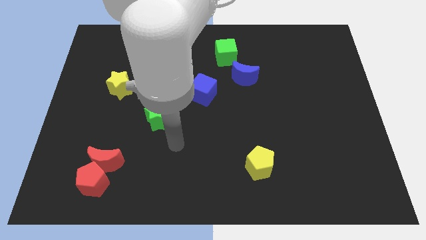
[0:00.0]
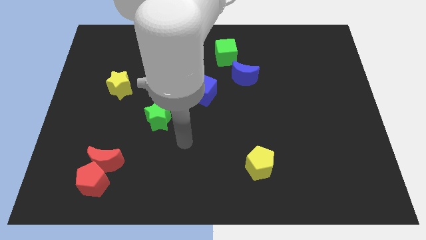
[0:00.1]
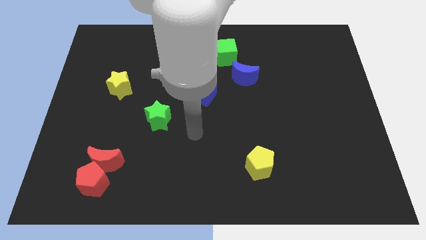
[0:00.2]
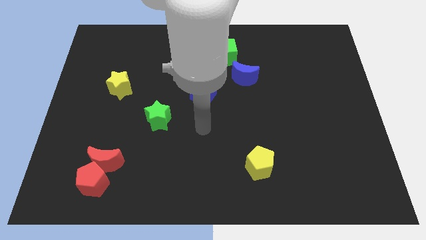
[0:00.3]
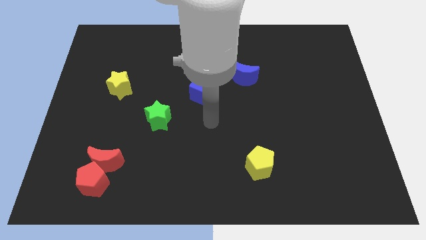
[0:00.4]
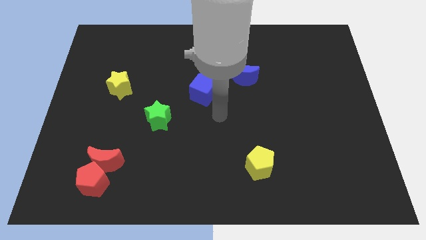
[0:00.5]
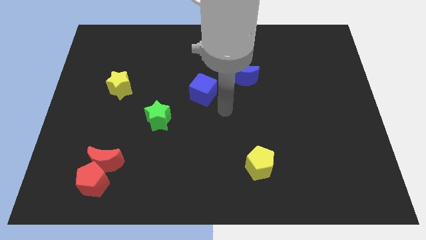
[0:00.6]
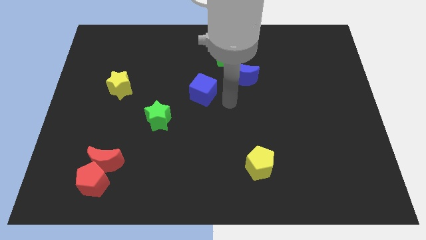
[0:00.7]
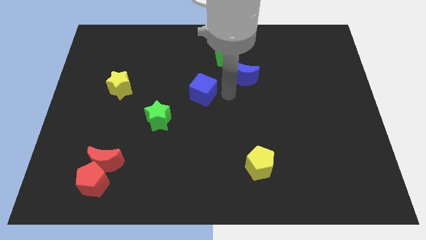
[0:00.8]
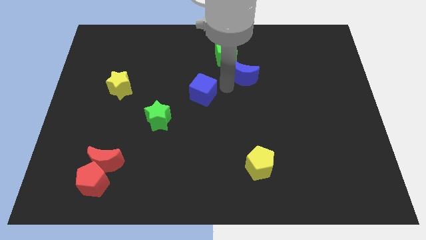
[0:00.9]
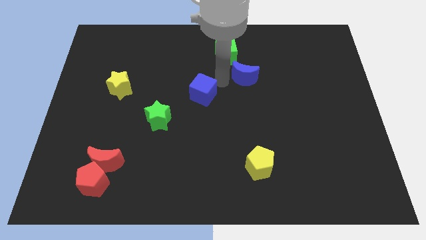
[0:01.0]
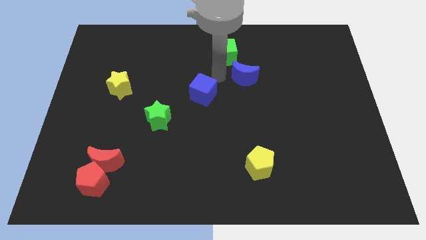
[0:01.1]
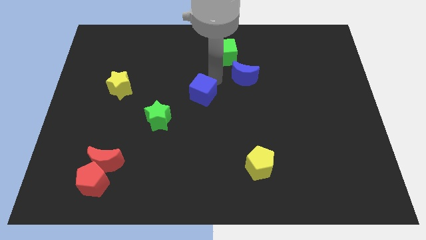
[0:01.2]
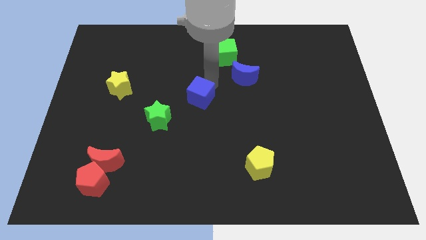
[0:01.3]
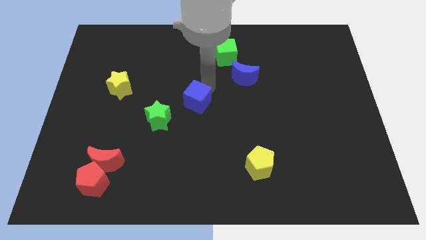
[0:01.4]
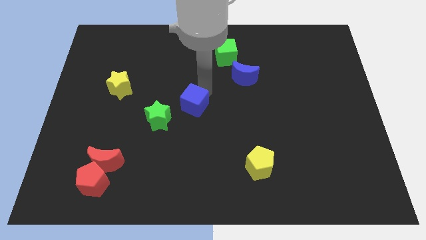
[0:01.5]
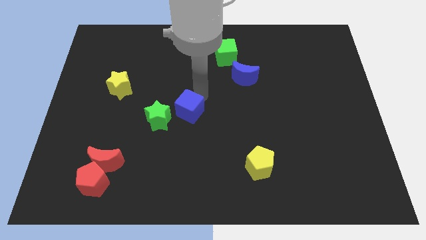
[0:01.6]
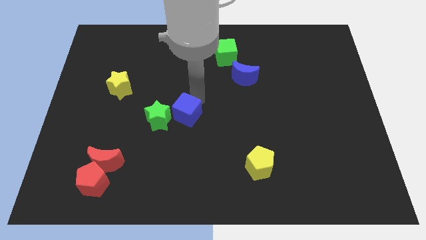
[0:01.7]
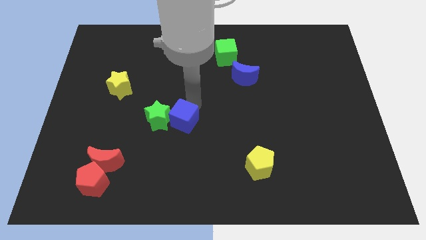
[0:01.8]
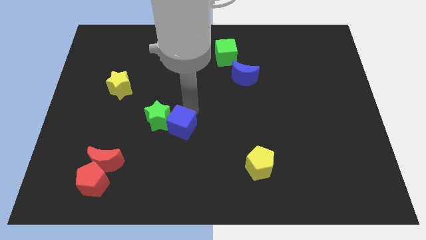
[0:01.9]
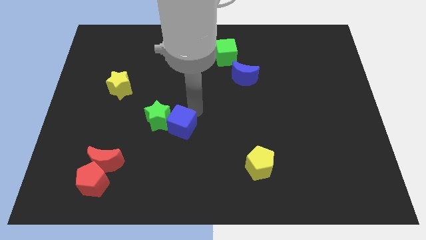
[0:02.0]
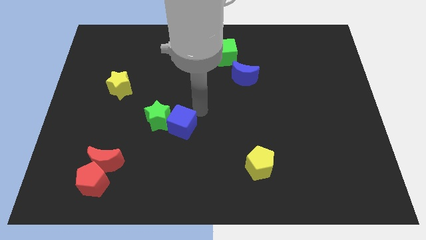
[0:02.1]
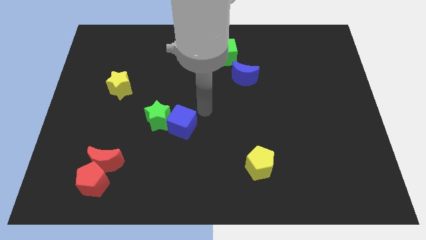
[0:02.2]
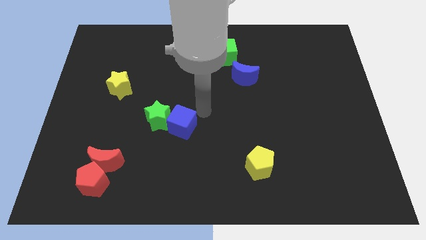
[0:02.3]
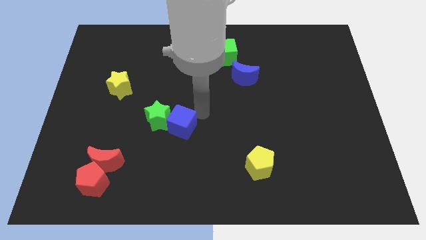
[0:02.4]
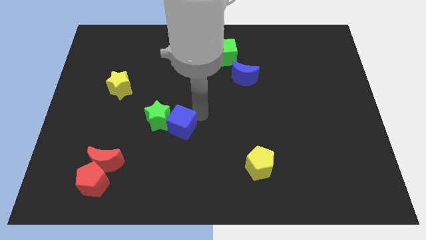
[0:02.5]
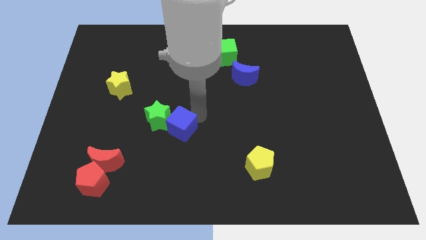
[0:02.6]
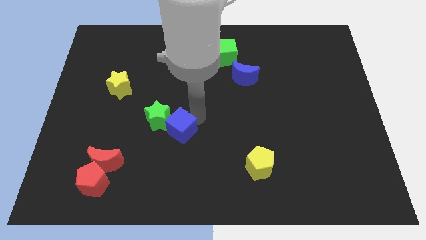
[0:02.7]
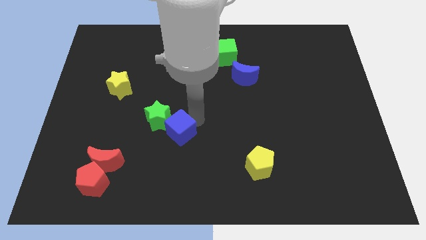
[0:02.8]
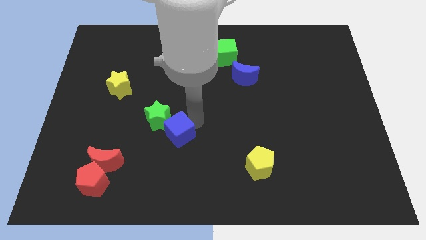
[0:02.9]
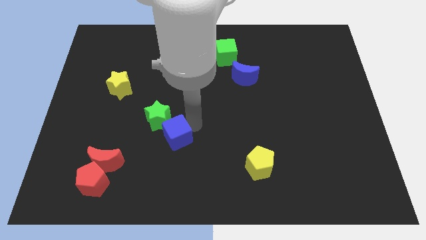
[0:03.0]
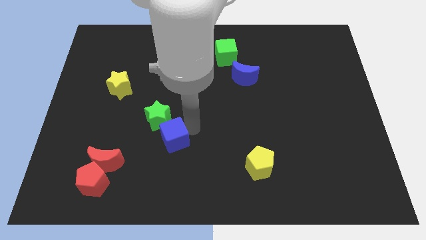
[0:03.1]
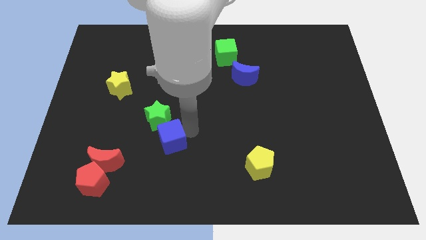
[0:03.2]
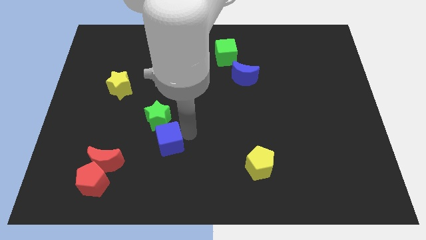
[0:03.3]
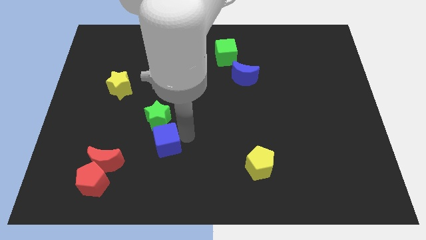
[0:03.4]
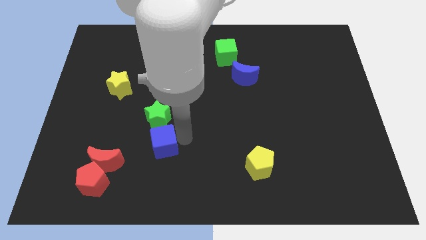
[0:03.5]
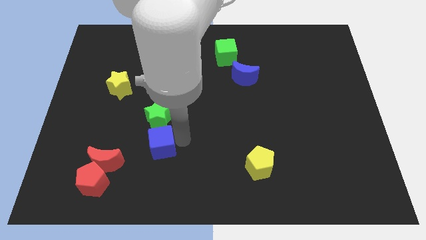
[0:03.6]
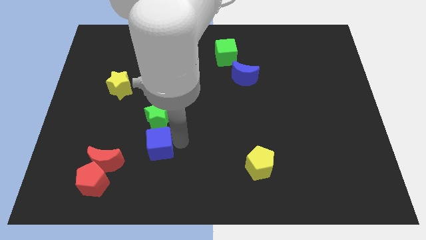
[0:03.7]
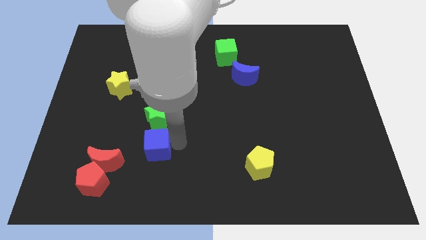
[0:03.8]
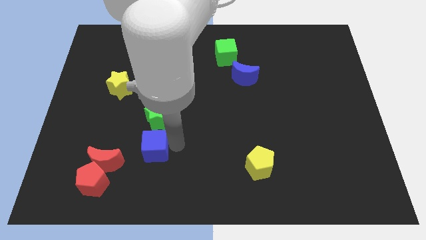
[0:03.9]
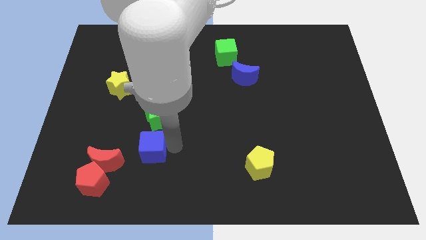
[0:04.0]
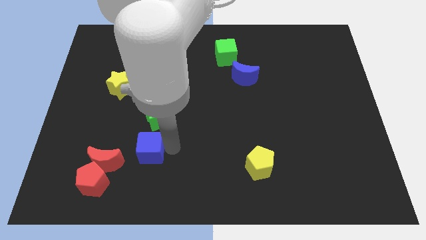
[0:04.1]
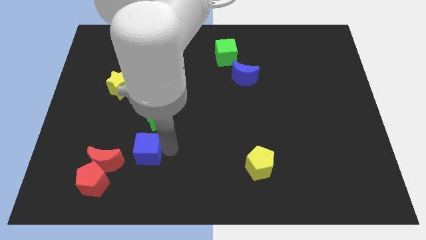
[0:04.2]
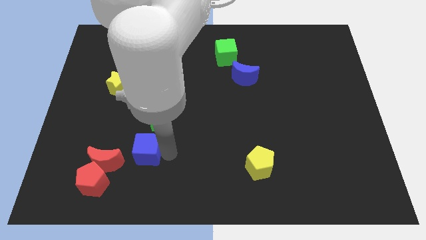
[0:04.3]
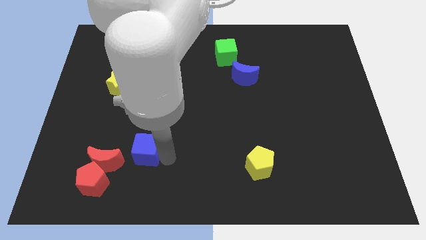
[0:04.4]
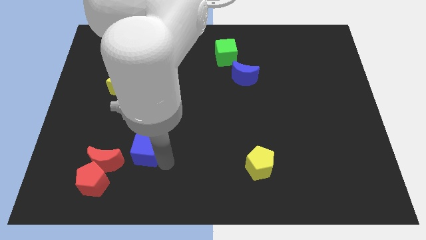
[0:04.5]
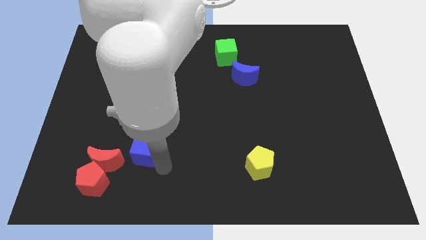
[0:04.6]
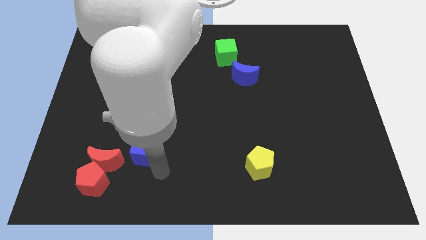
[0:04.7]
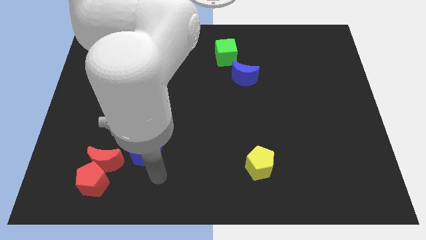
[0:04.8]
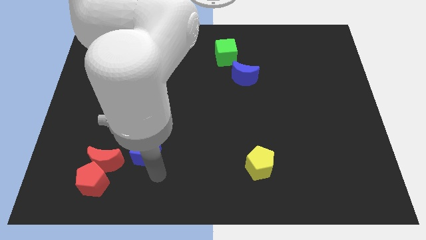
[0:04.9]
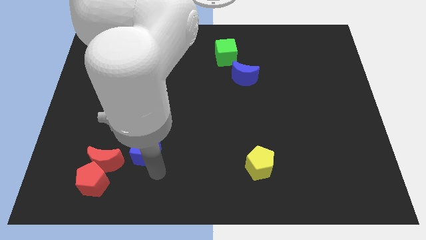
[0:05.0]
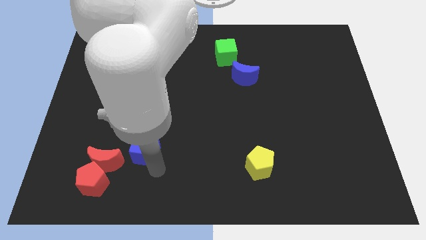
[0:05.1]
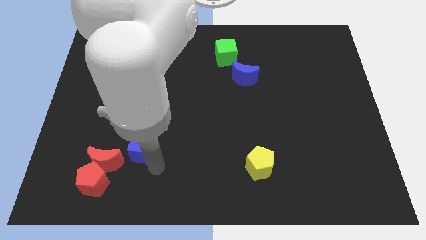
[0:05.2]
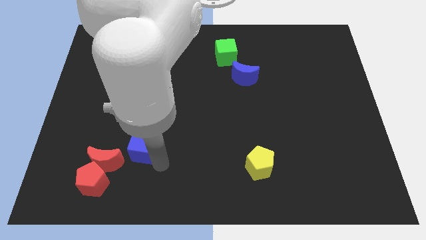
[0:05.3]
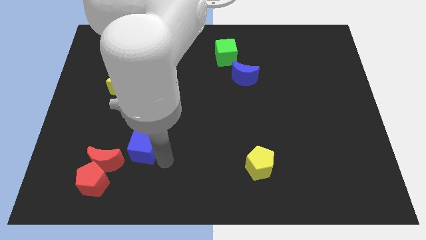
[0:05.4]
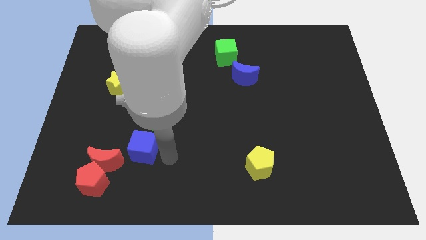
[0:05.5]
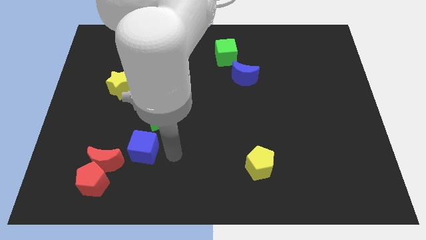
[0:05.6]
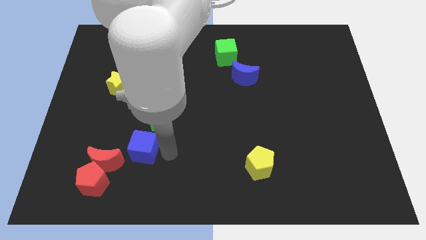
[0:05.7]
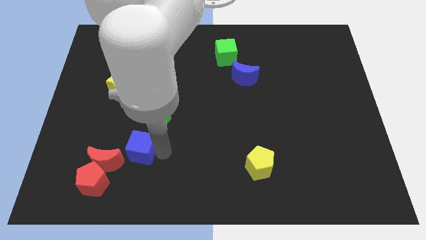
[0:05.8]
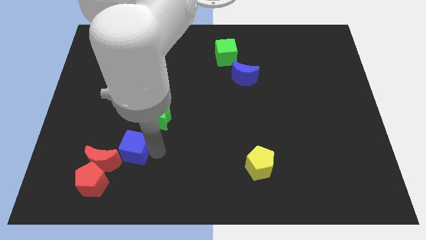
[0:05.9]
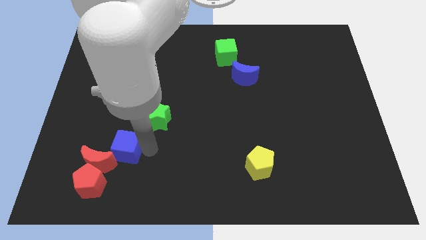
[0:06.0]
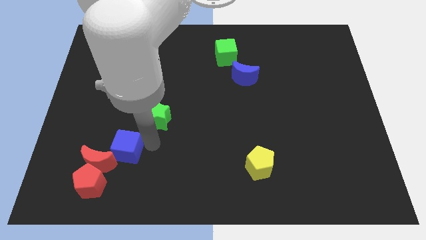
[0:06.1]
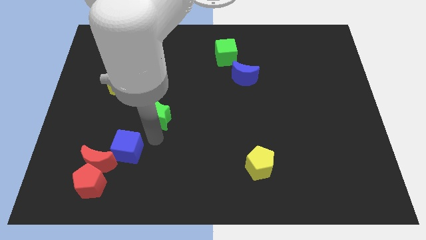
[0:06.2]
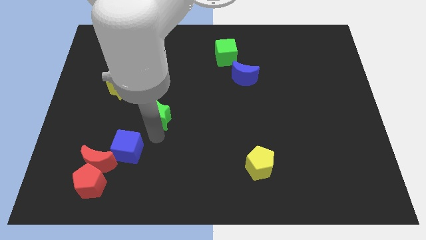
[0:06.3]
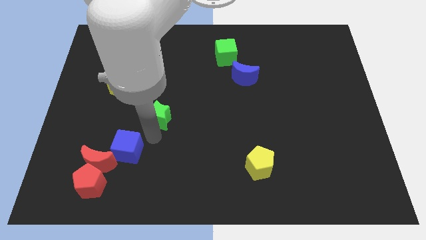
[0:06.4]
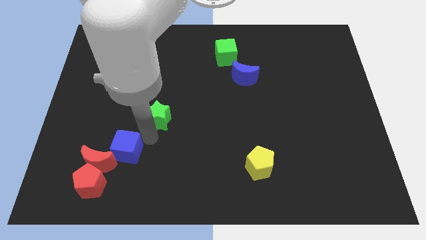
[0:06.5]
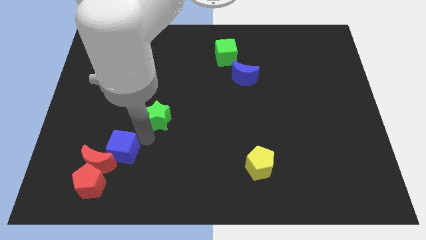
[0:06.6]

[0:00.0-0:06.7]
slide the blue cube close to the red moon
